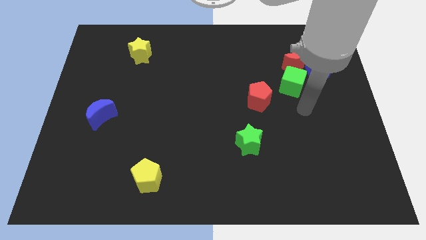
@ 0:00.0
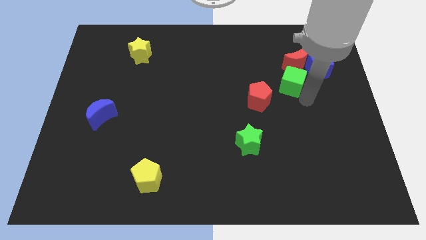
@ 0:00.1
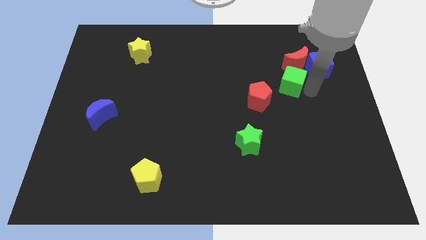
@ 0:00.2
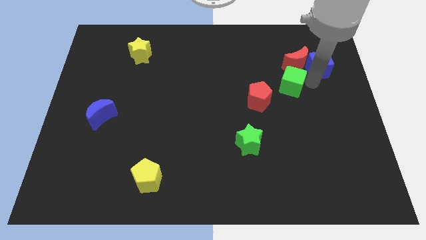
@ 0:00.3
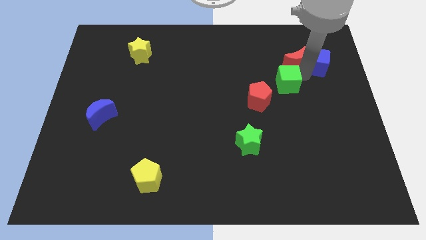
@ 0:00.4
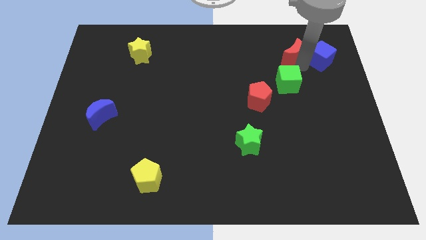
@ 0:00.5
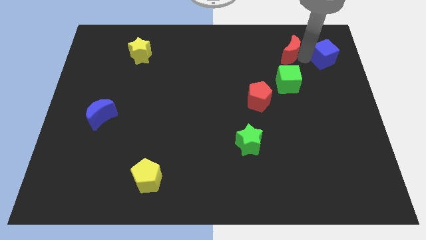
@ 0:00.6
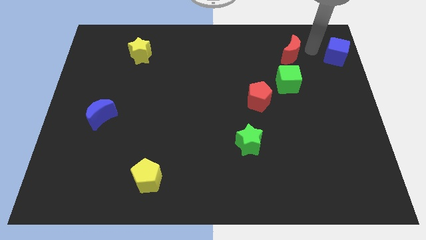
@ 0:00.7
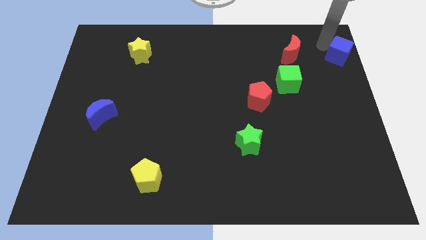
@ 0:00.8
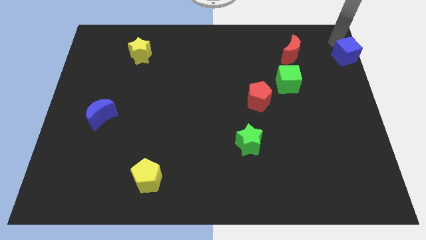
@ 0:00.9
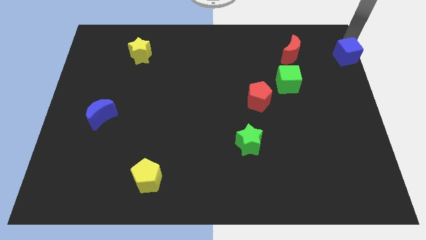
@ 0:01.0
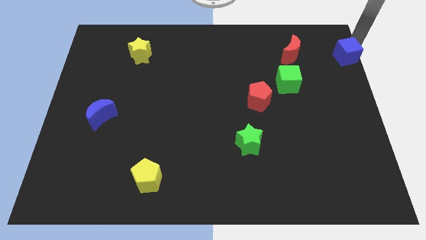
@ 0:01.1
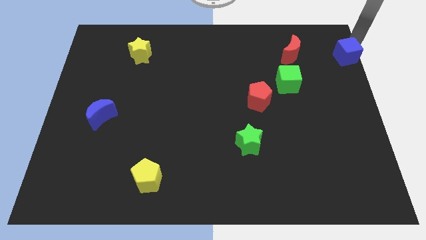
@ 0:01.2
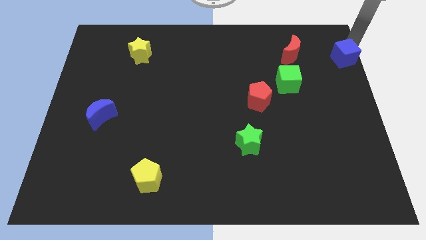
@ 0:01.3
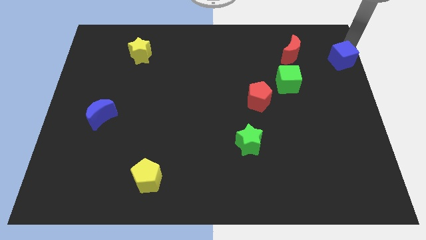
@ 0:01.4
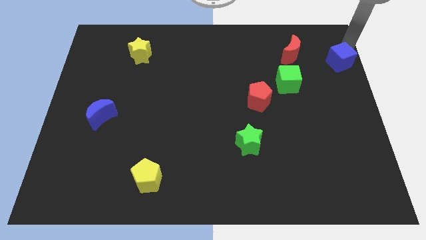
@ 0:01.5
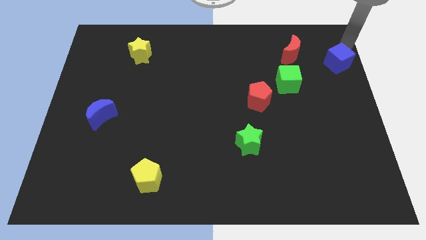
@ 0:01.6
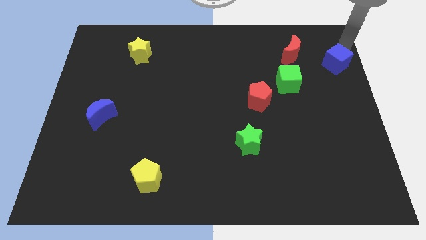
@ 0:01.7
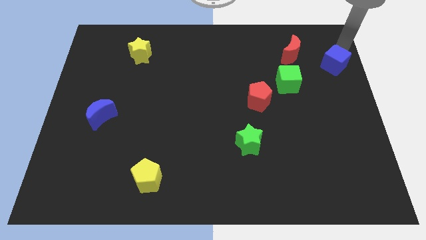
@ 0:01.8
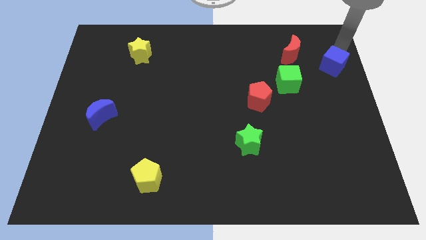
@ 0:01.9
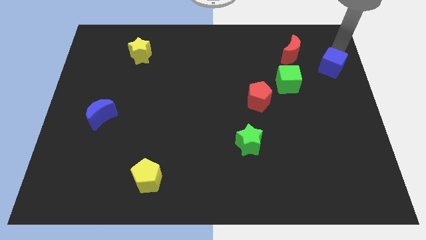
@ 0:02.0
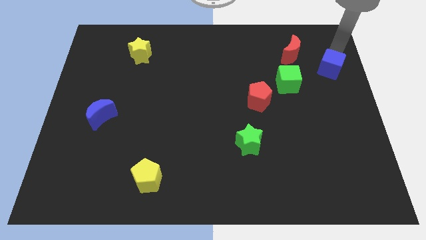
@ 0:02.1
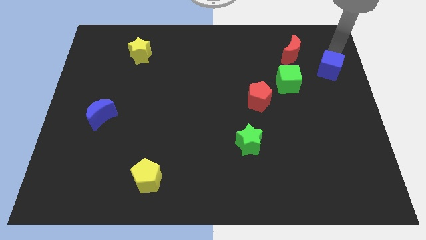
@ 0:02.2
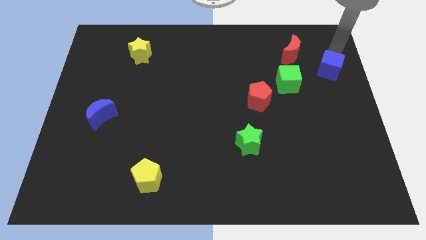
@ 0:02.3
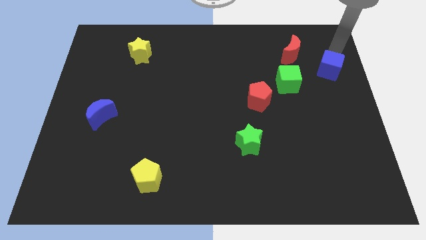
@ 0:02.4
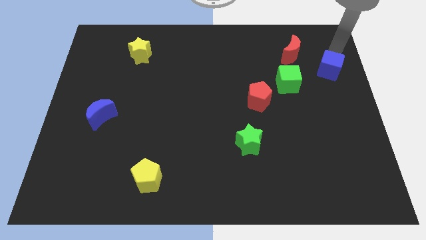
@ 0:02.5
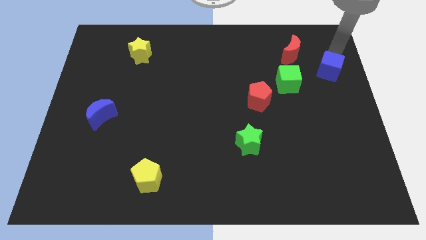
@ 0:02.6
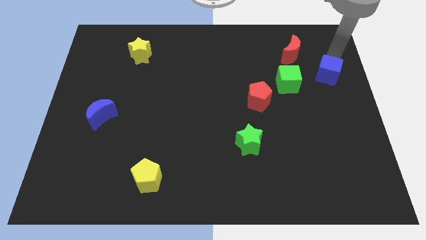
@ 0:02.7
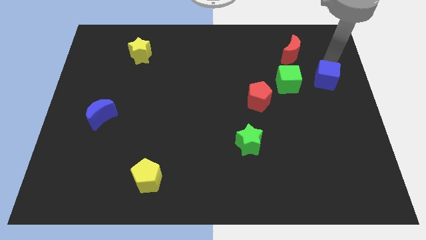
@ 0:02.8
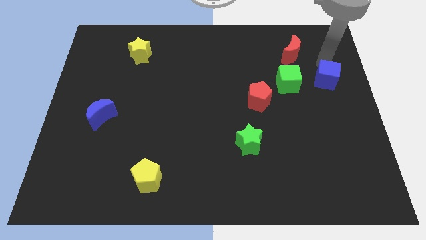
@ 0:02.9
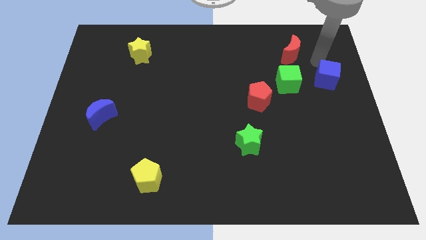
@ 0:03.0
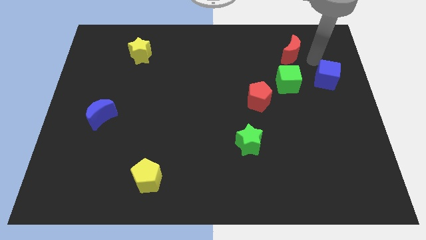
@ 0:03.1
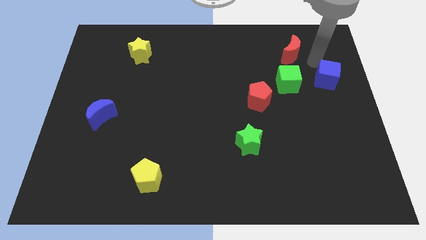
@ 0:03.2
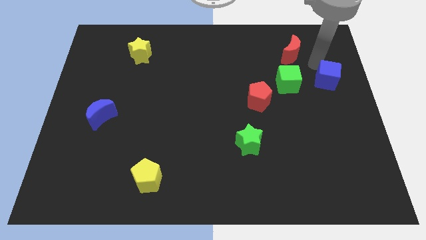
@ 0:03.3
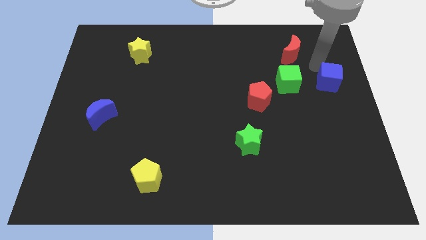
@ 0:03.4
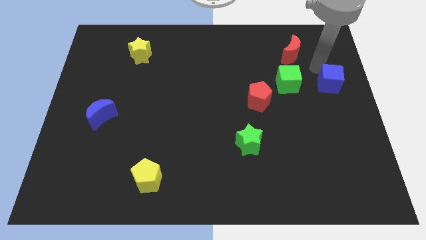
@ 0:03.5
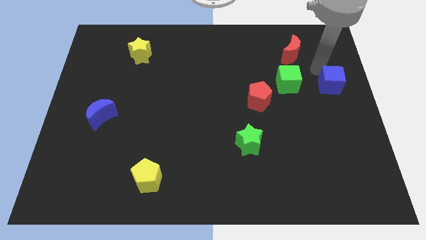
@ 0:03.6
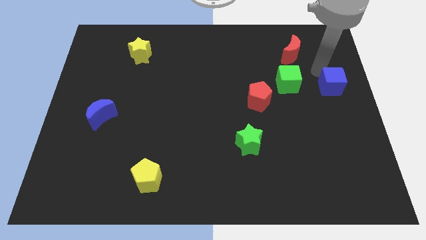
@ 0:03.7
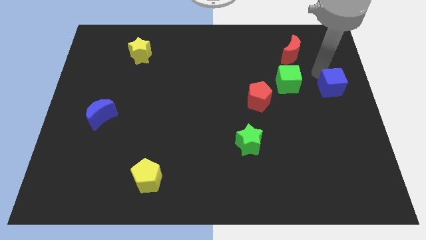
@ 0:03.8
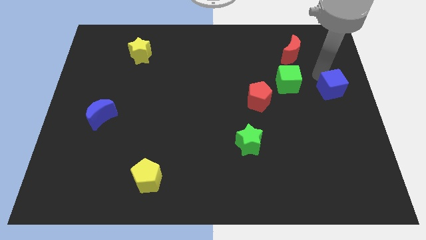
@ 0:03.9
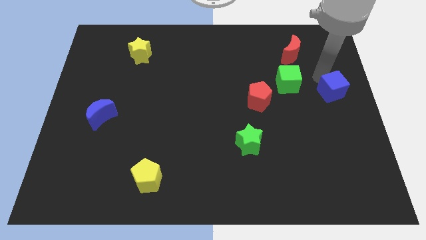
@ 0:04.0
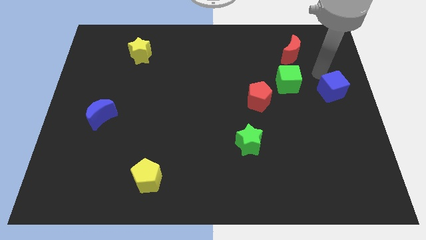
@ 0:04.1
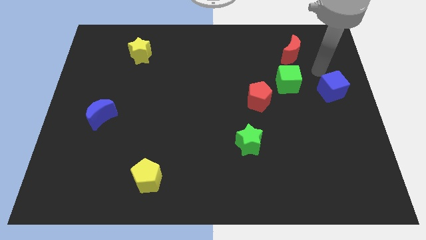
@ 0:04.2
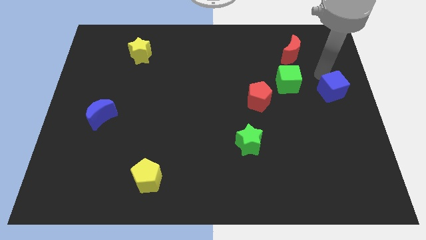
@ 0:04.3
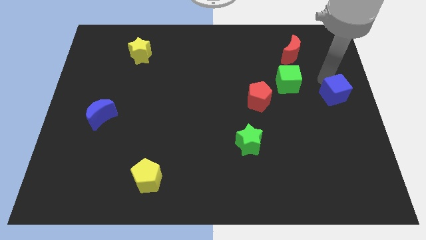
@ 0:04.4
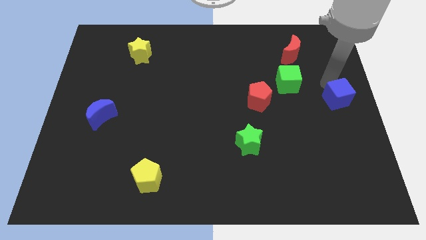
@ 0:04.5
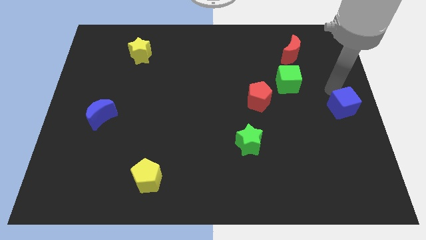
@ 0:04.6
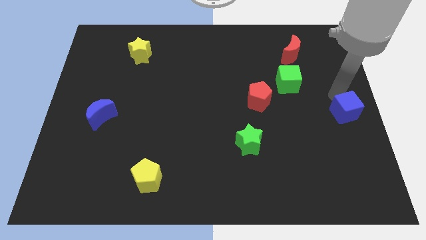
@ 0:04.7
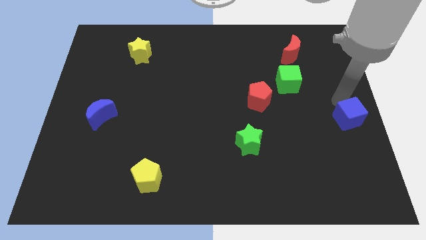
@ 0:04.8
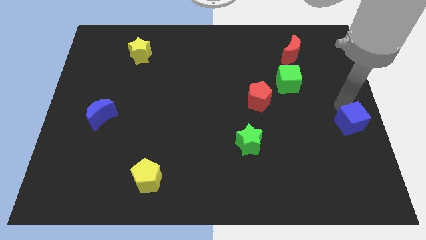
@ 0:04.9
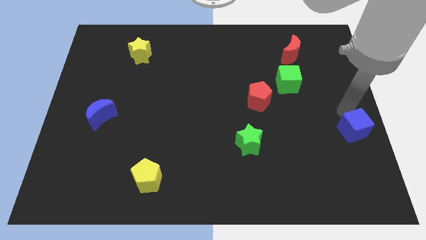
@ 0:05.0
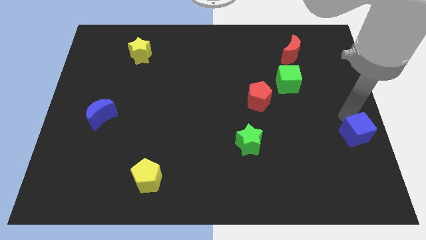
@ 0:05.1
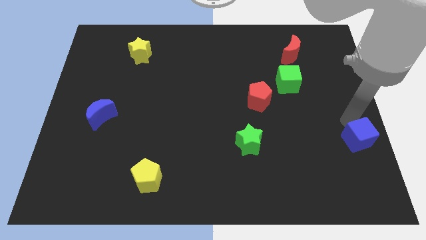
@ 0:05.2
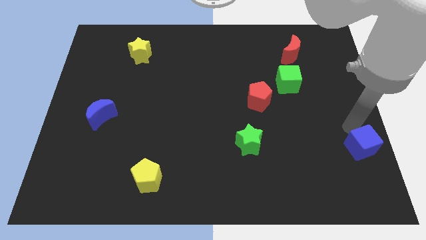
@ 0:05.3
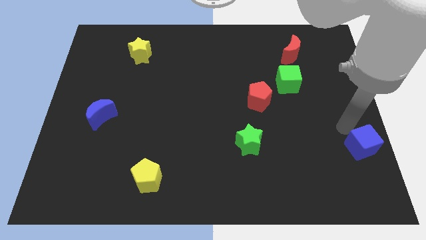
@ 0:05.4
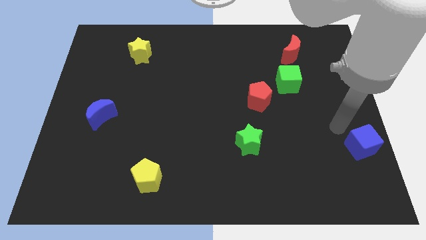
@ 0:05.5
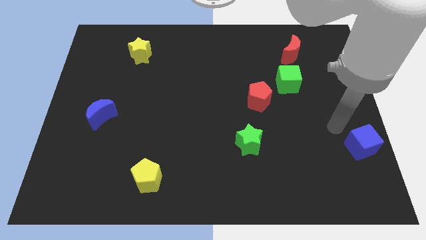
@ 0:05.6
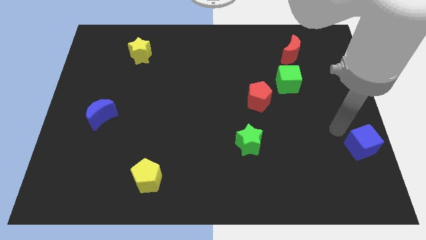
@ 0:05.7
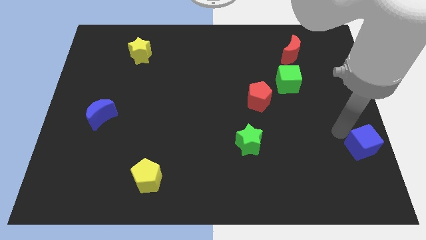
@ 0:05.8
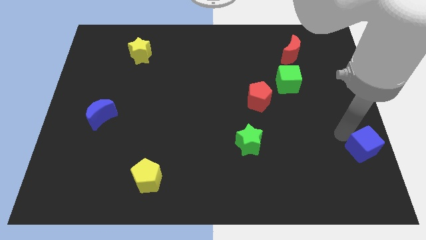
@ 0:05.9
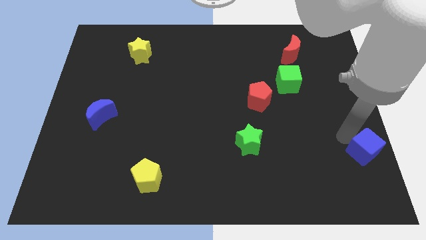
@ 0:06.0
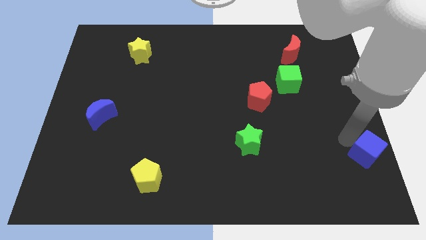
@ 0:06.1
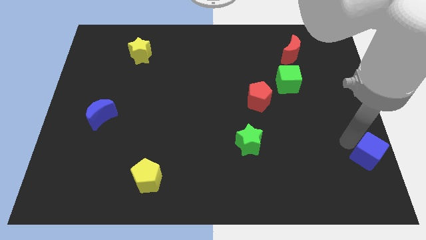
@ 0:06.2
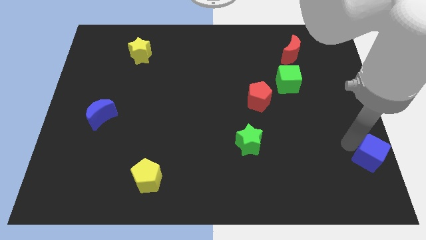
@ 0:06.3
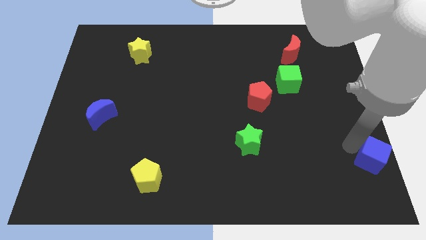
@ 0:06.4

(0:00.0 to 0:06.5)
move the blue cube to the lower right corner
